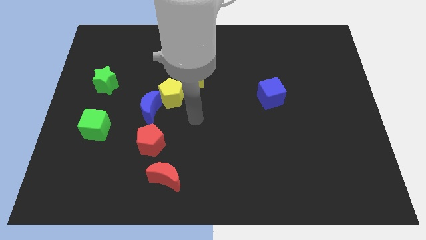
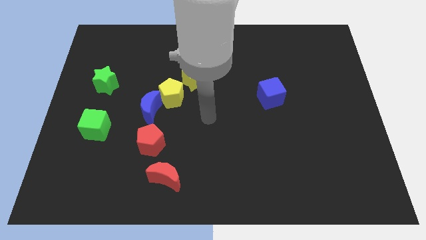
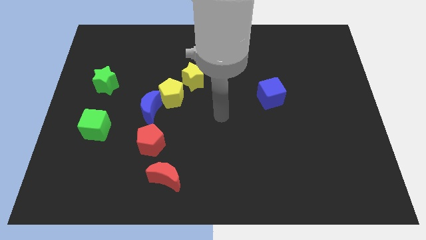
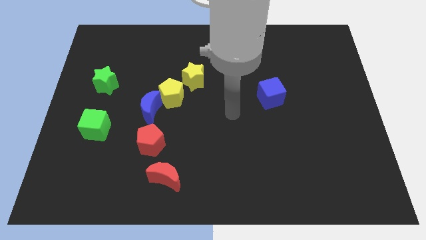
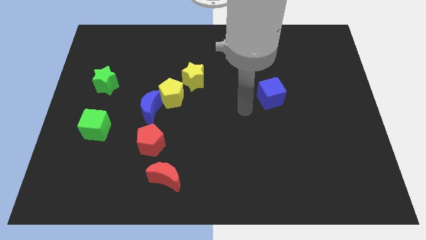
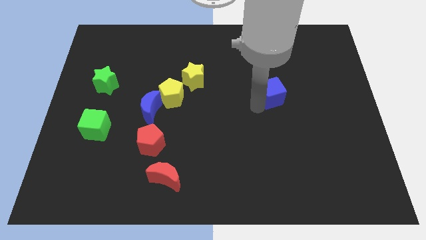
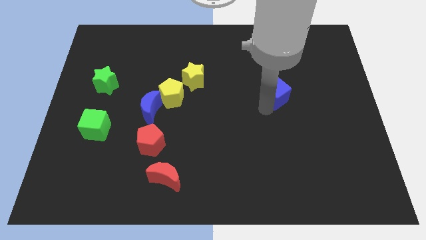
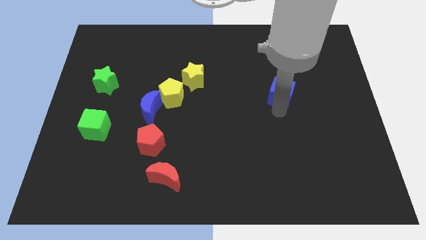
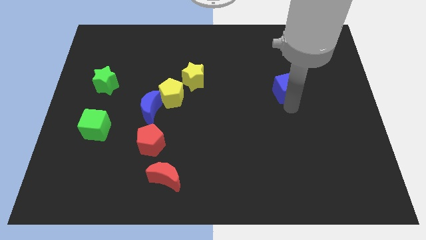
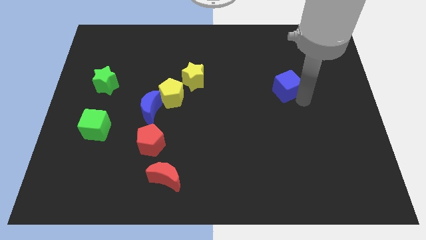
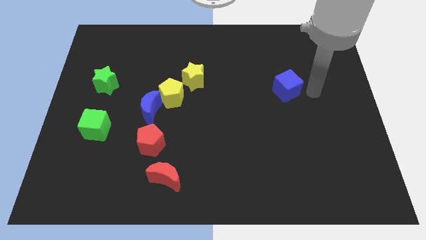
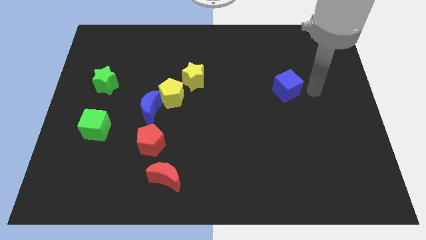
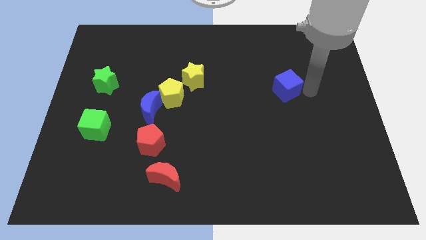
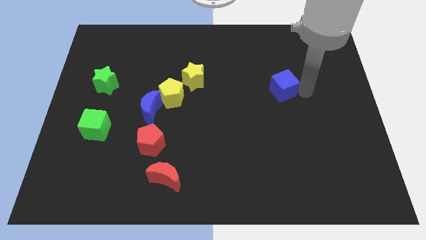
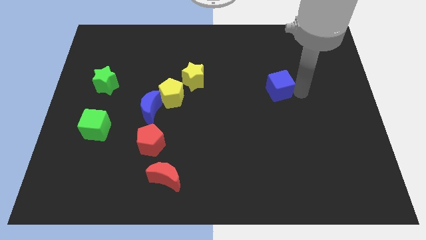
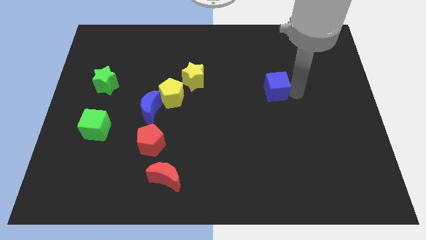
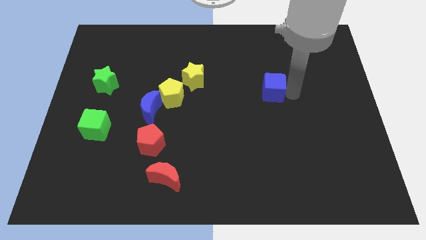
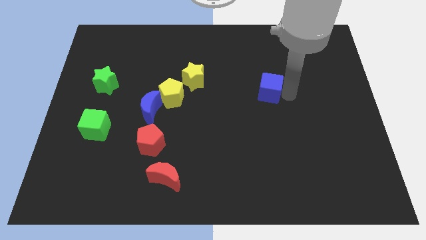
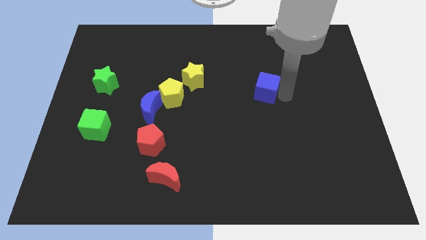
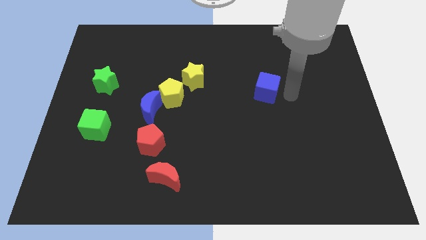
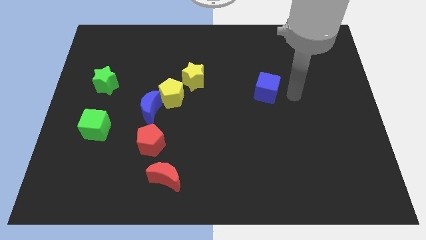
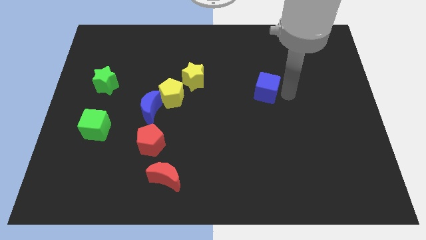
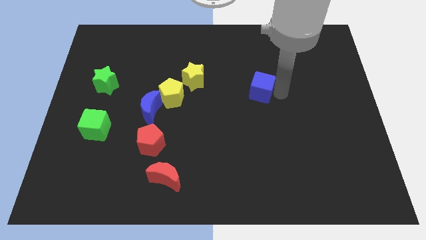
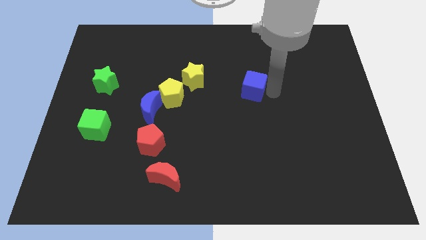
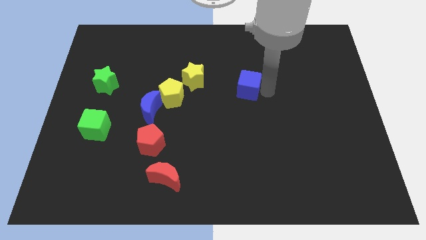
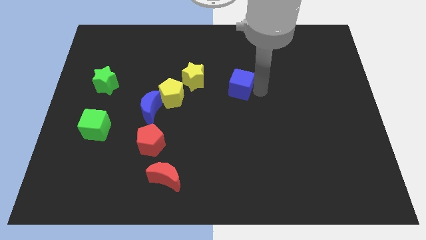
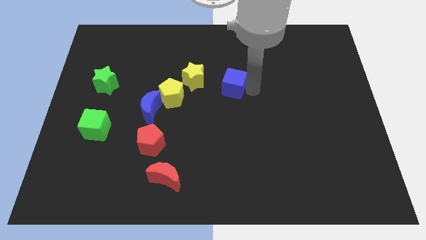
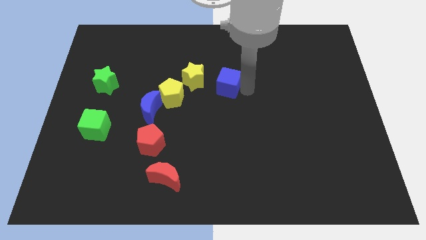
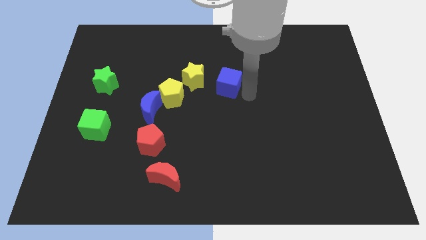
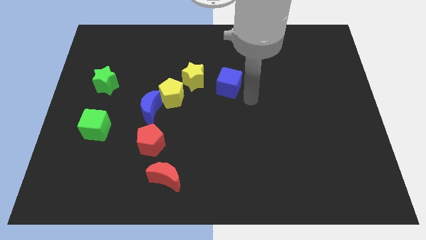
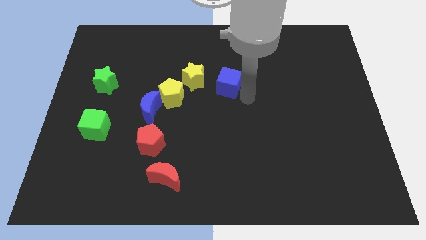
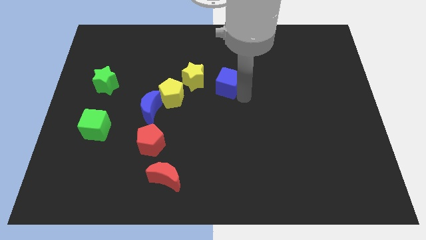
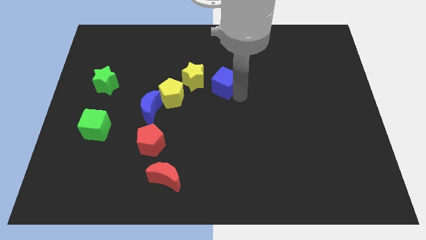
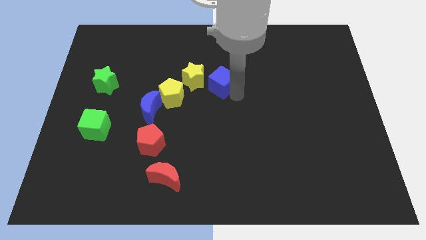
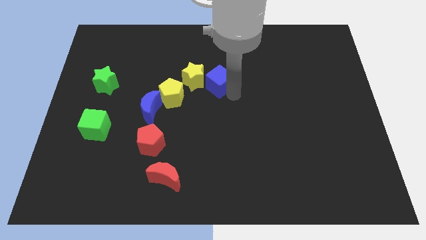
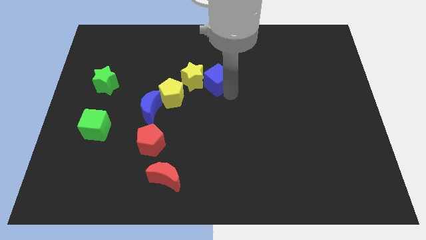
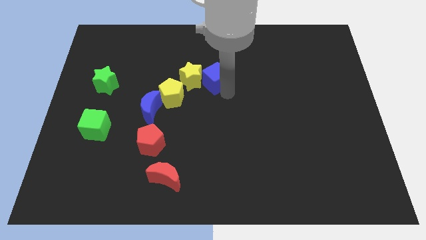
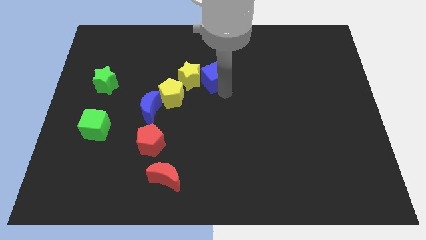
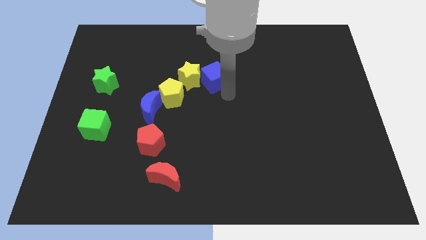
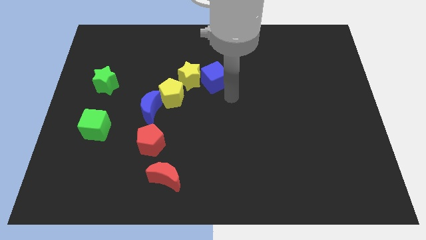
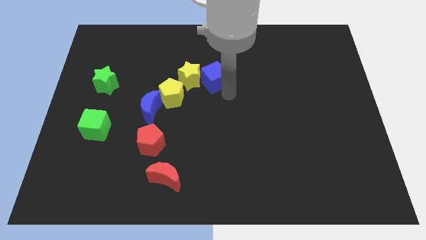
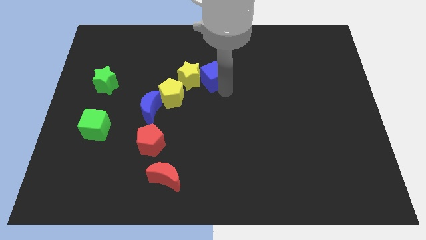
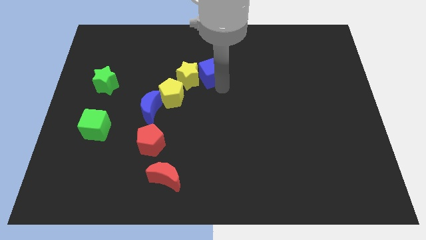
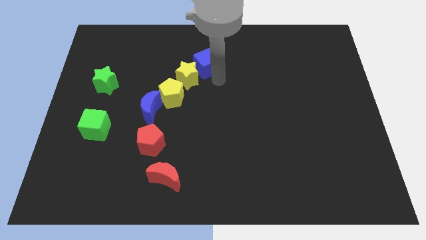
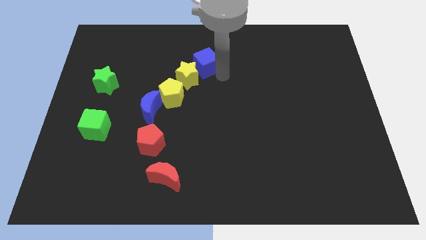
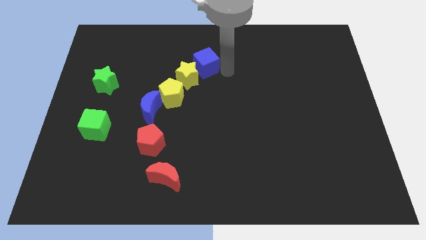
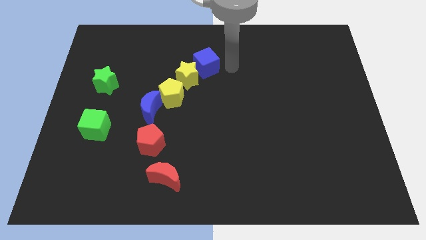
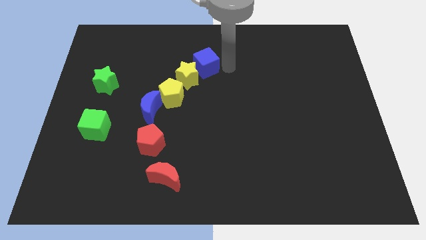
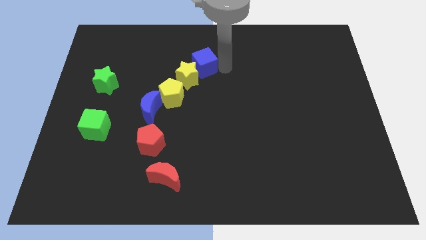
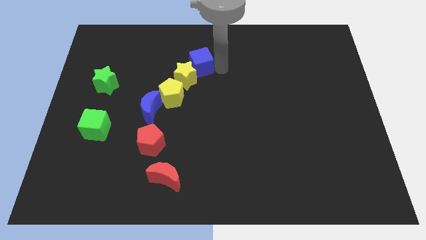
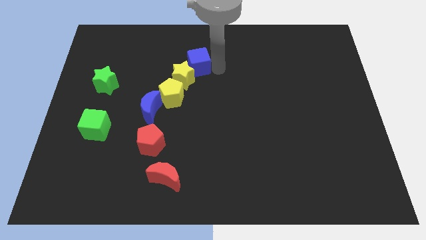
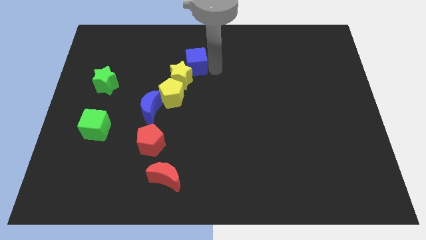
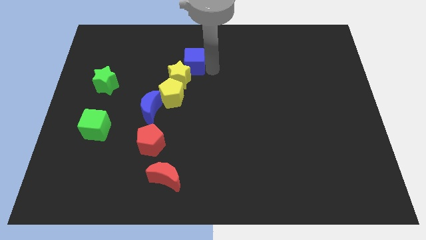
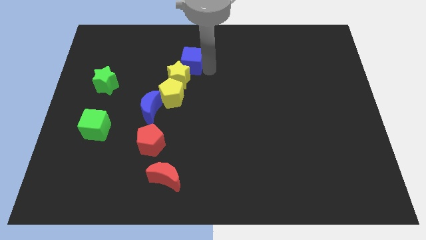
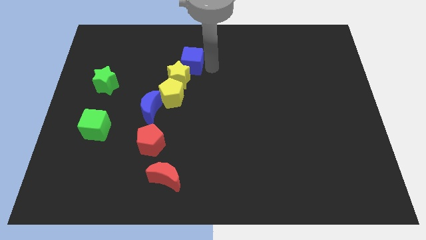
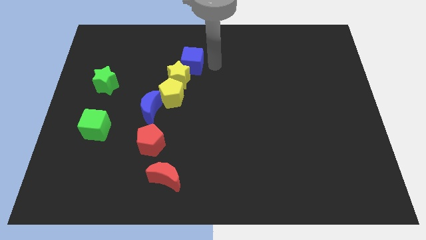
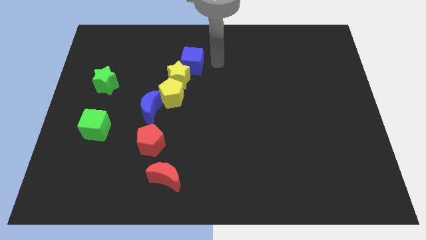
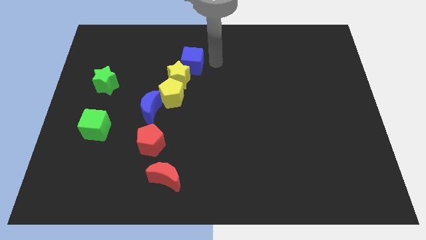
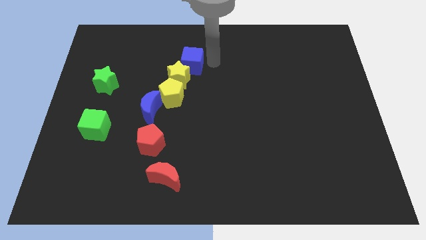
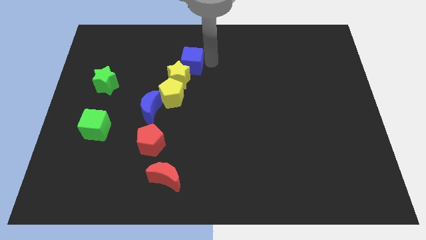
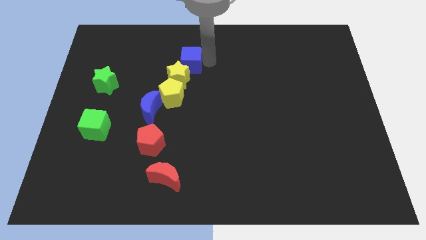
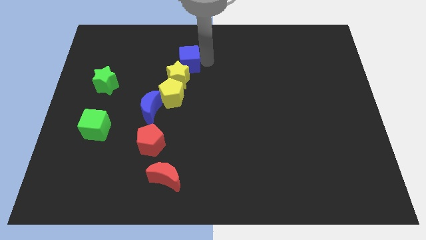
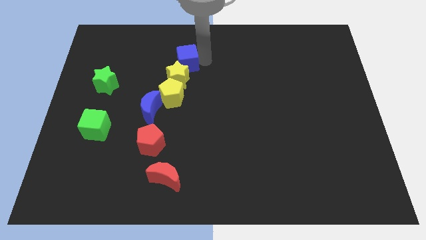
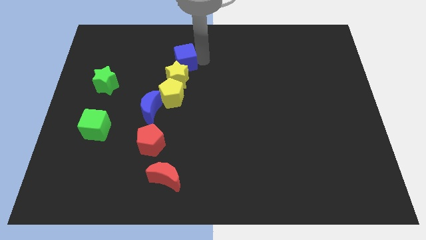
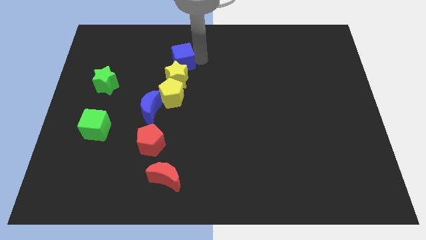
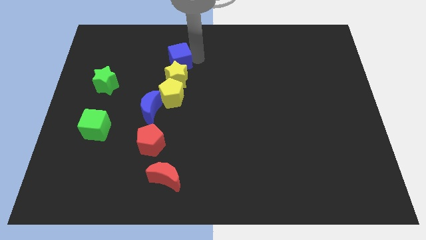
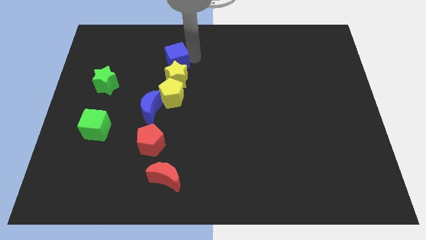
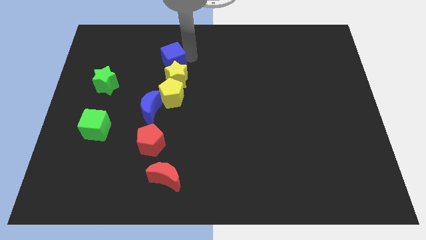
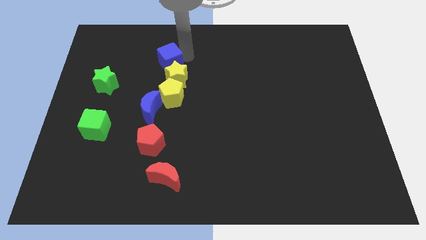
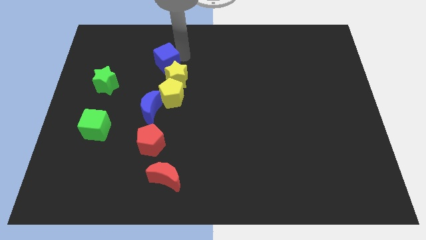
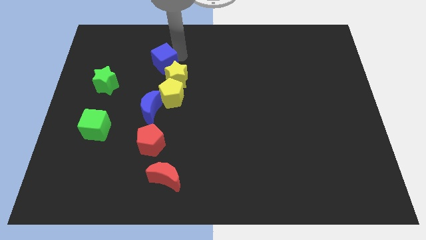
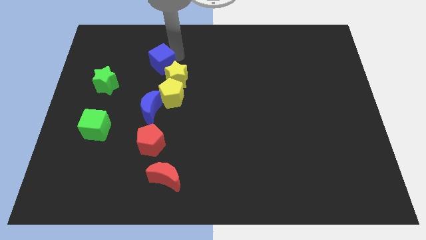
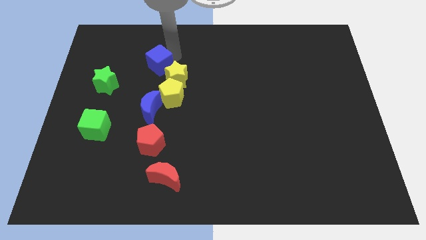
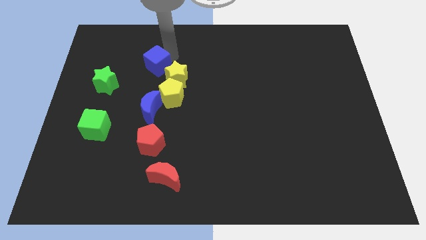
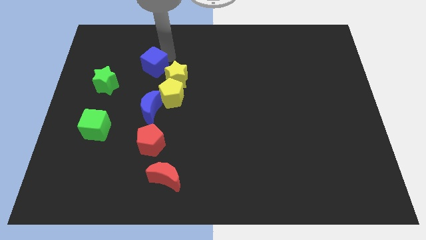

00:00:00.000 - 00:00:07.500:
push the blue cube to the top left of the yellow pentagon
